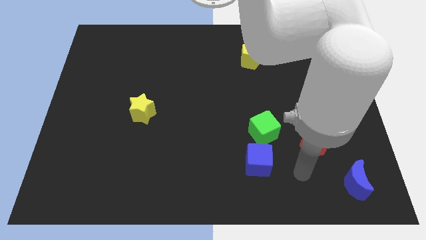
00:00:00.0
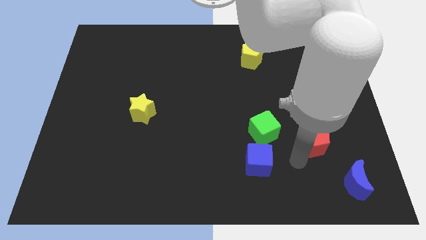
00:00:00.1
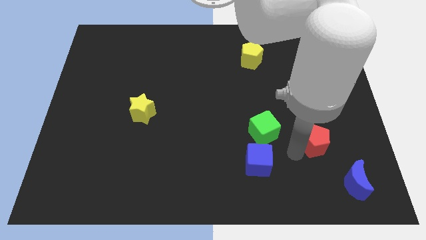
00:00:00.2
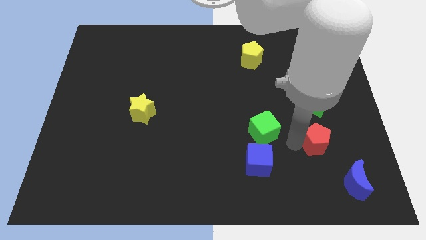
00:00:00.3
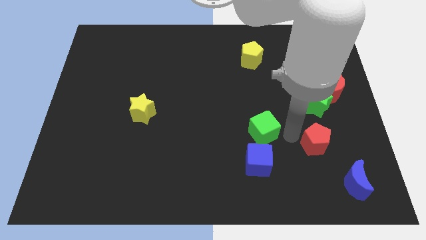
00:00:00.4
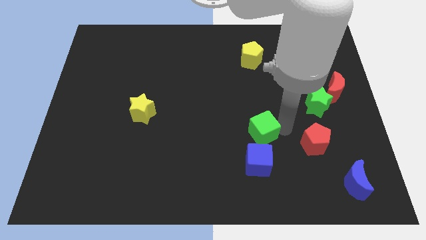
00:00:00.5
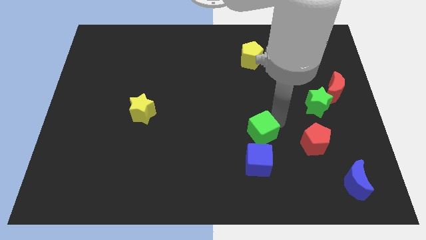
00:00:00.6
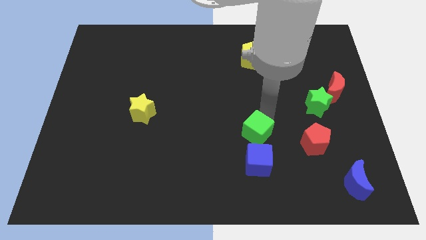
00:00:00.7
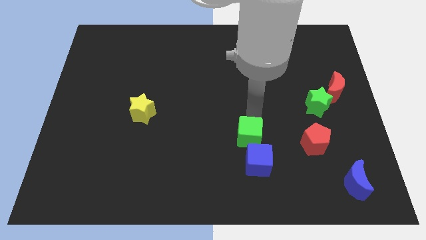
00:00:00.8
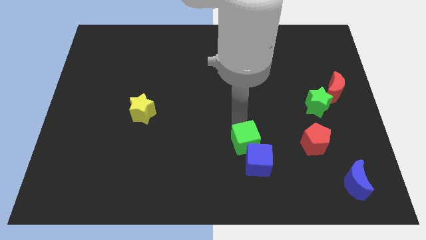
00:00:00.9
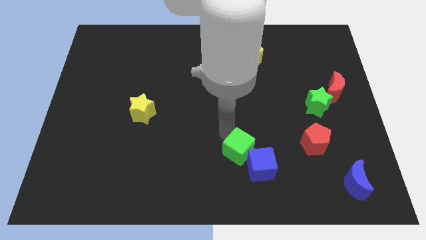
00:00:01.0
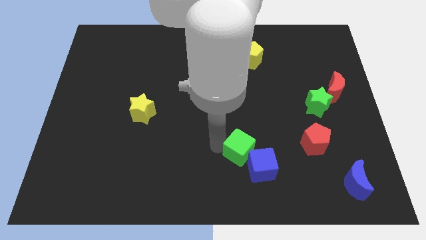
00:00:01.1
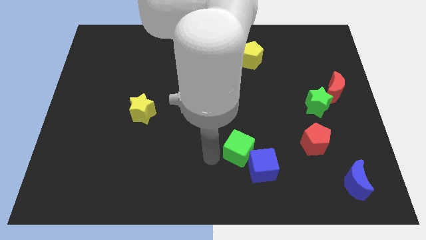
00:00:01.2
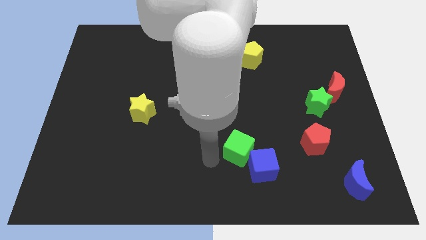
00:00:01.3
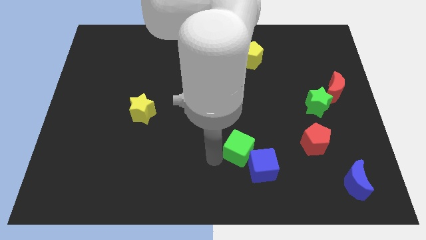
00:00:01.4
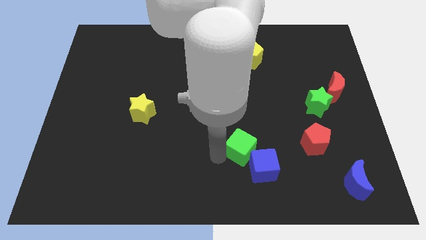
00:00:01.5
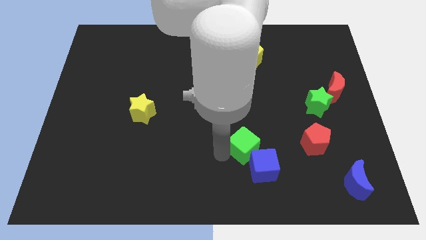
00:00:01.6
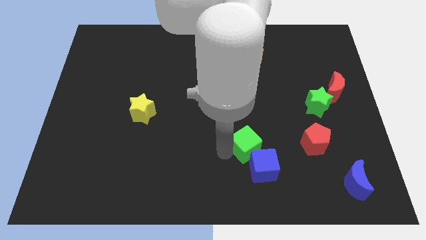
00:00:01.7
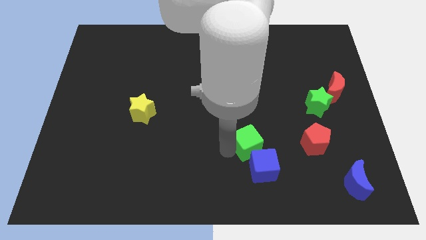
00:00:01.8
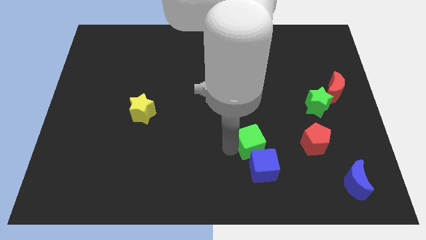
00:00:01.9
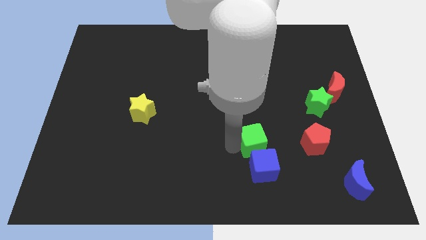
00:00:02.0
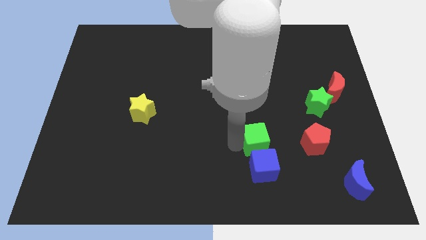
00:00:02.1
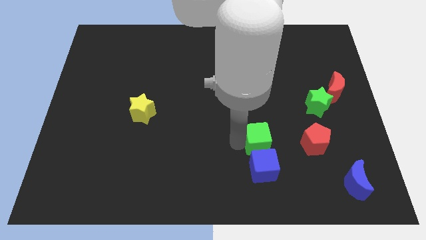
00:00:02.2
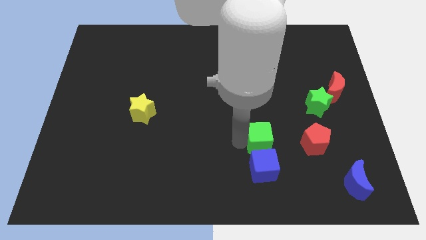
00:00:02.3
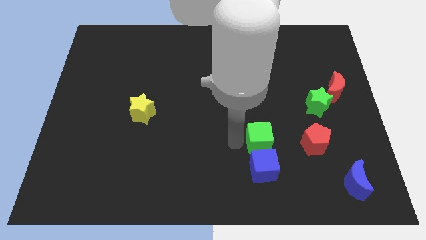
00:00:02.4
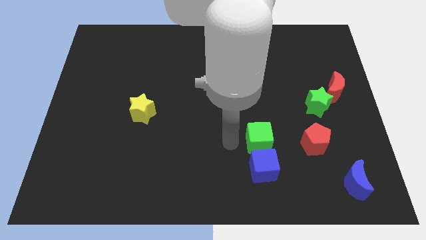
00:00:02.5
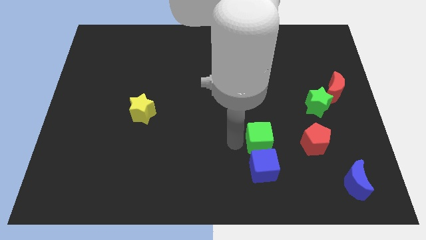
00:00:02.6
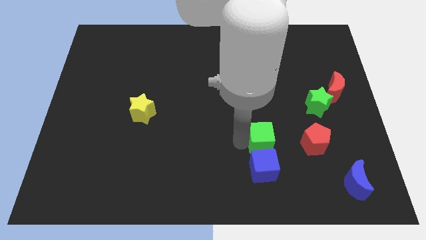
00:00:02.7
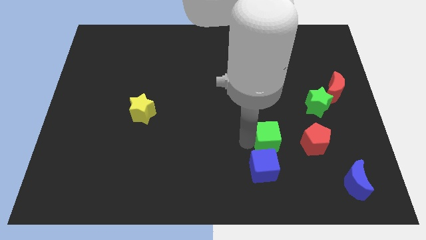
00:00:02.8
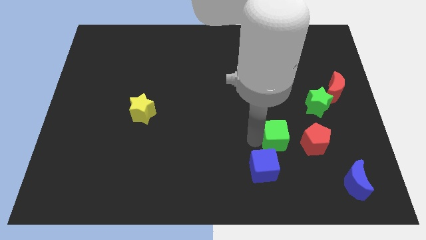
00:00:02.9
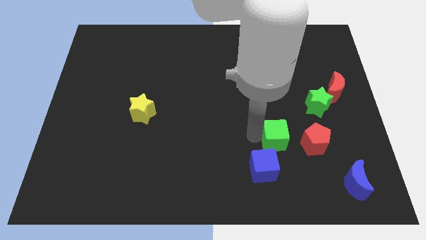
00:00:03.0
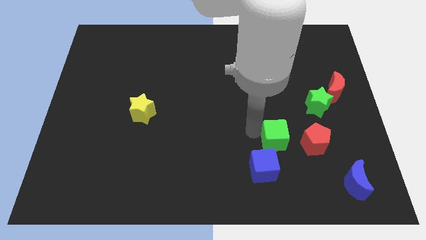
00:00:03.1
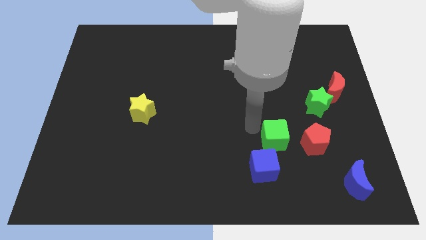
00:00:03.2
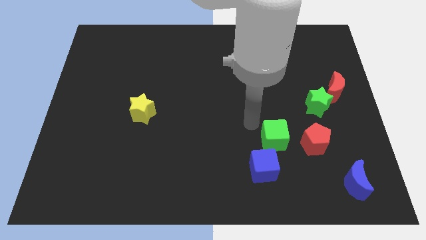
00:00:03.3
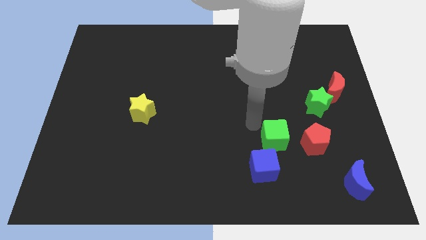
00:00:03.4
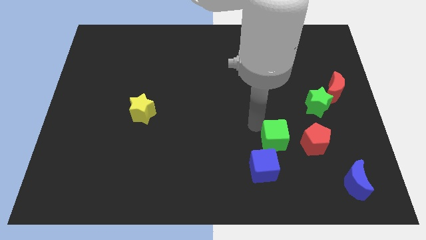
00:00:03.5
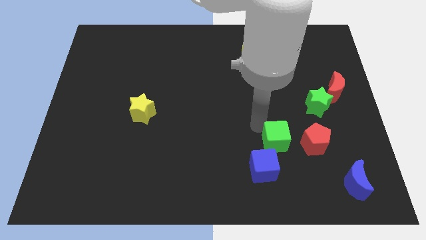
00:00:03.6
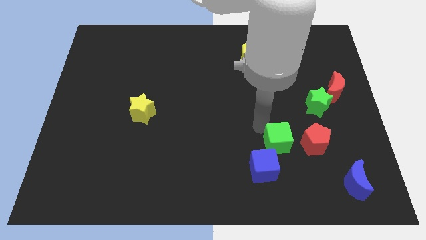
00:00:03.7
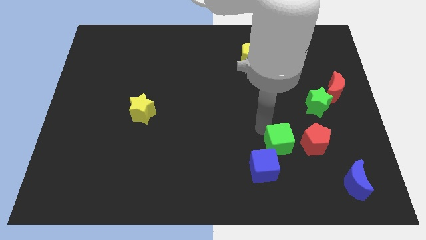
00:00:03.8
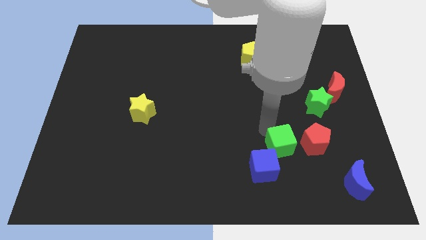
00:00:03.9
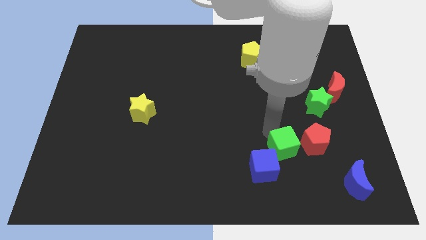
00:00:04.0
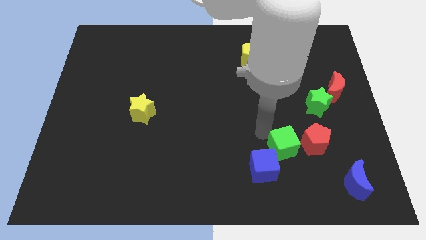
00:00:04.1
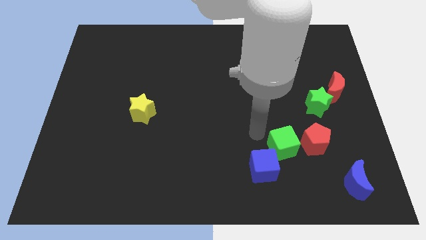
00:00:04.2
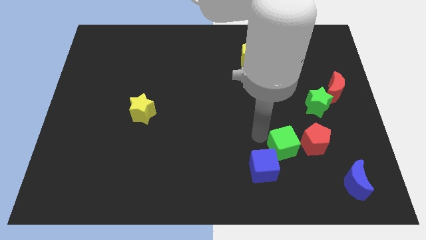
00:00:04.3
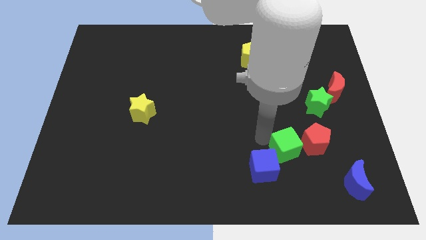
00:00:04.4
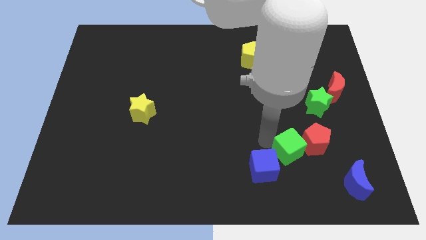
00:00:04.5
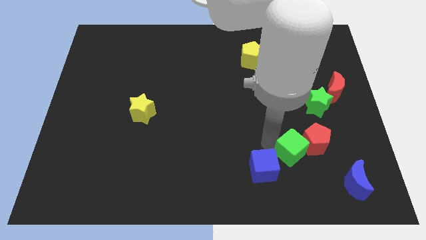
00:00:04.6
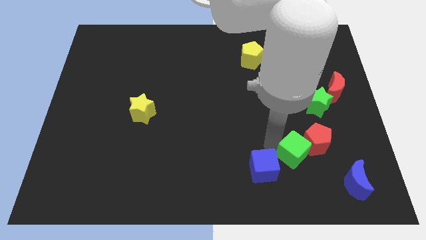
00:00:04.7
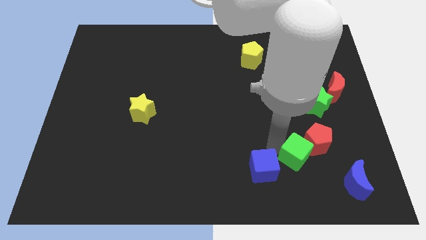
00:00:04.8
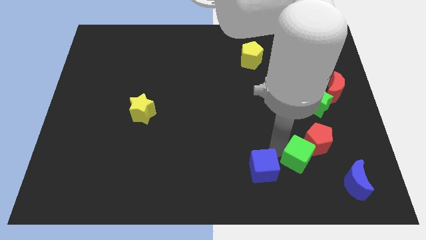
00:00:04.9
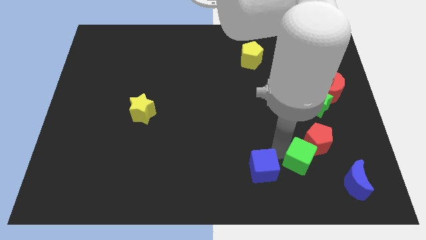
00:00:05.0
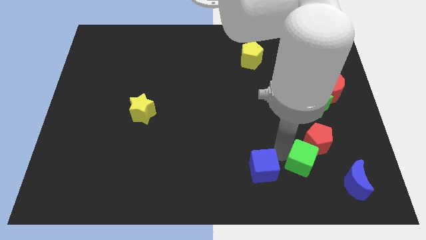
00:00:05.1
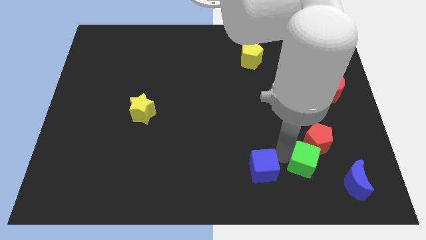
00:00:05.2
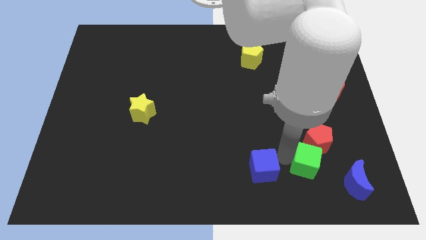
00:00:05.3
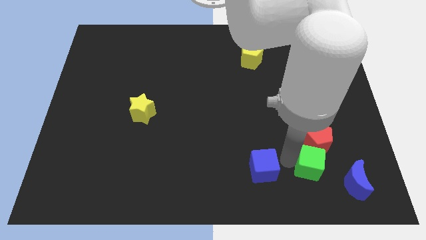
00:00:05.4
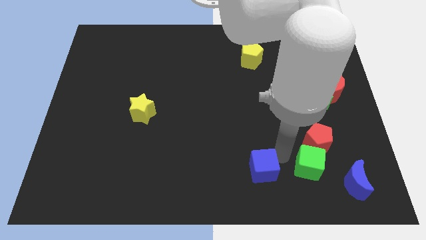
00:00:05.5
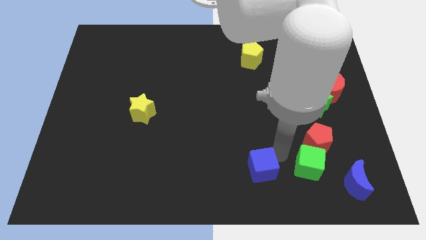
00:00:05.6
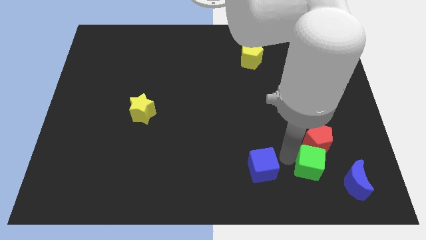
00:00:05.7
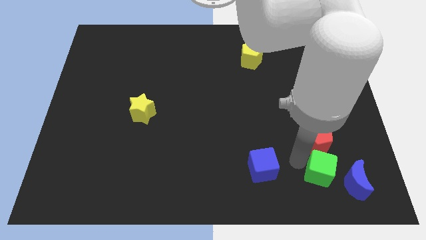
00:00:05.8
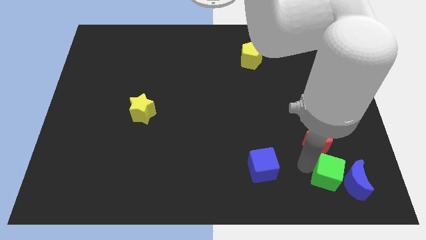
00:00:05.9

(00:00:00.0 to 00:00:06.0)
move the green cube next to the blue moon

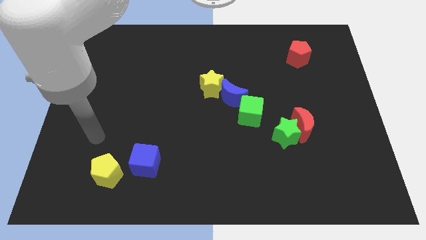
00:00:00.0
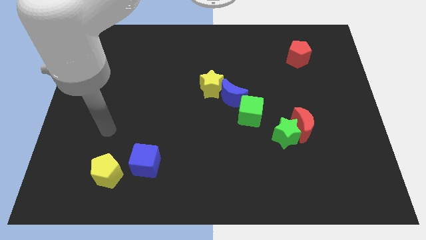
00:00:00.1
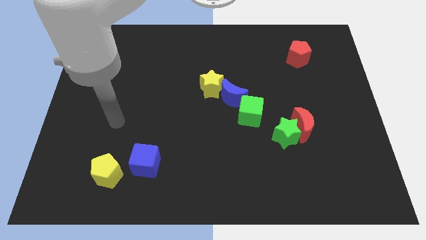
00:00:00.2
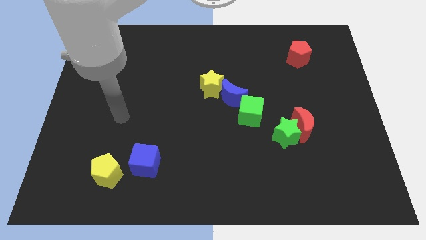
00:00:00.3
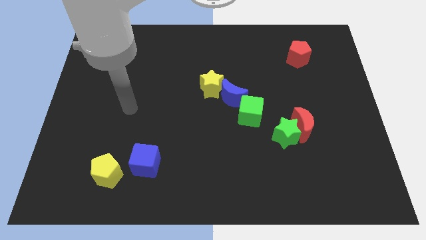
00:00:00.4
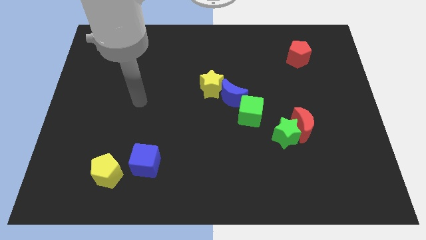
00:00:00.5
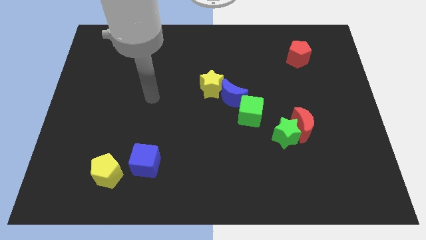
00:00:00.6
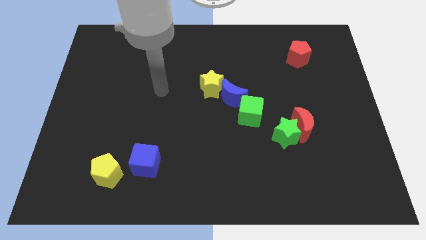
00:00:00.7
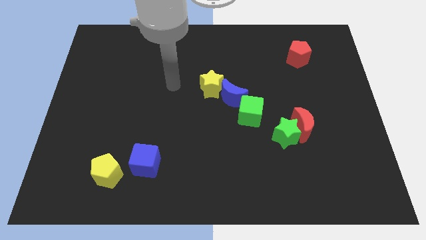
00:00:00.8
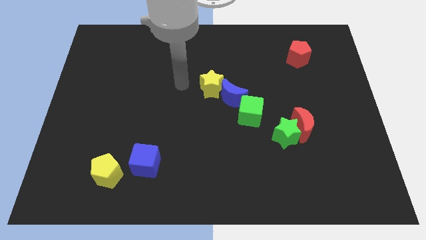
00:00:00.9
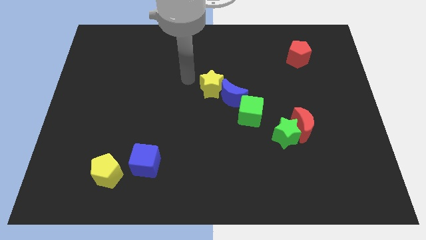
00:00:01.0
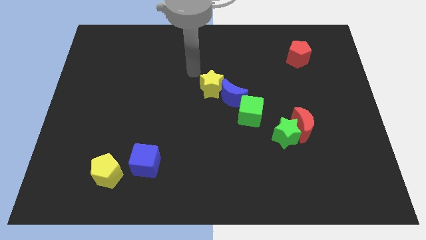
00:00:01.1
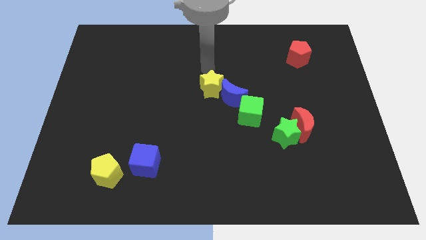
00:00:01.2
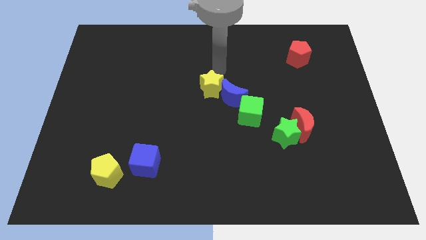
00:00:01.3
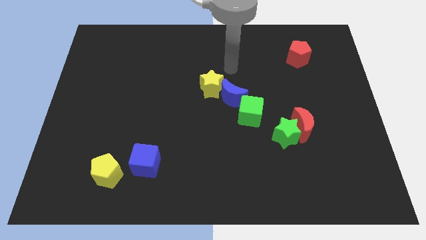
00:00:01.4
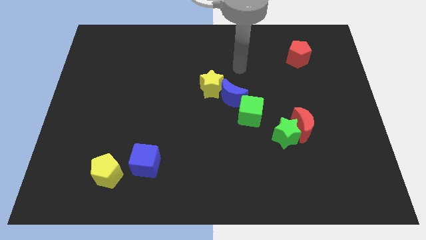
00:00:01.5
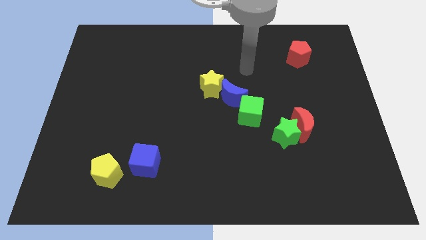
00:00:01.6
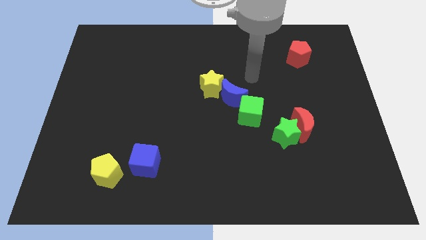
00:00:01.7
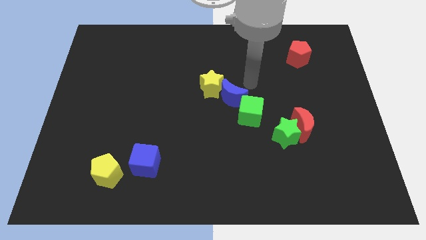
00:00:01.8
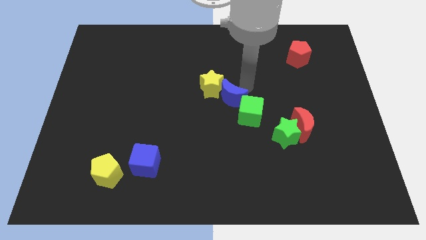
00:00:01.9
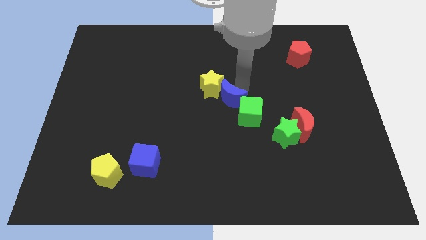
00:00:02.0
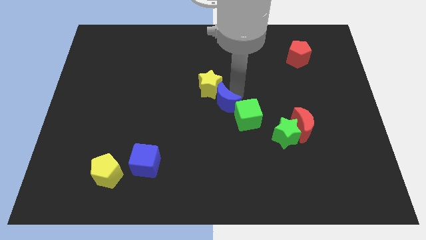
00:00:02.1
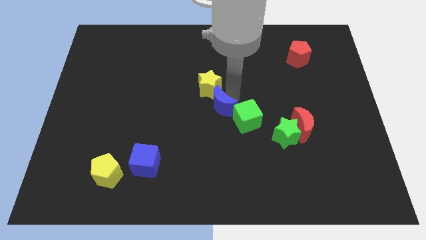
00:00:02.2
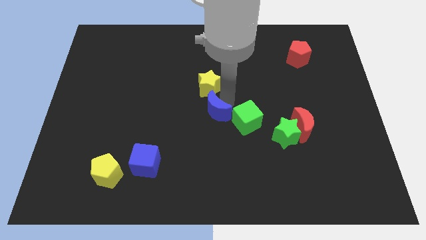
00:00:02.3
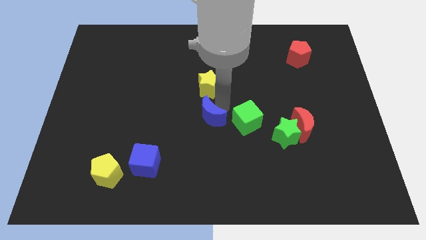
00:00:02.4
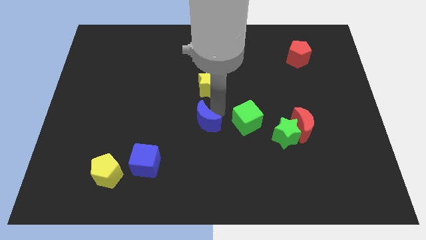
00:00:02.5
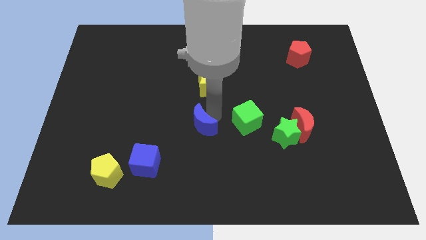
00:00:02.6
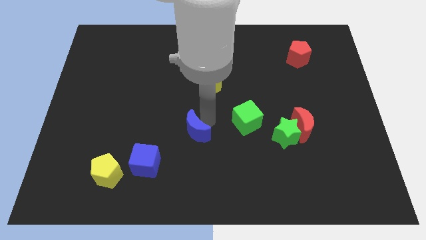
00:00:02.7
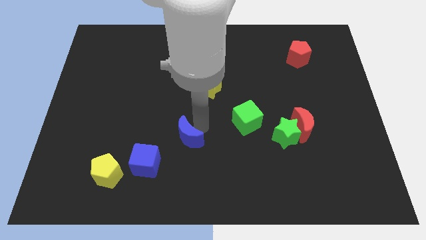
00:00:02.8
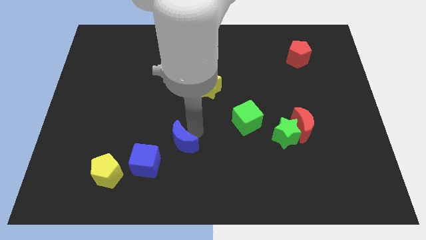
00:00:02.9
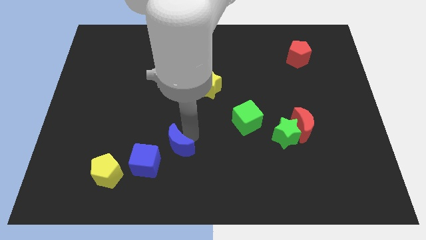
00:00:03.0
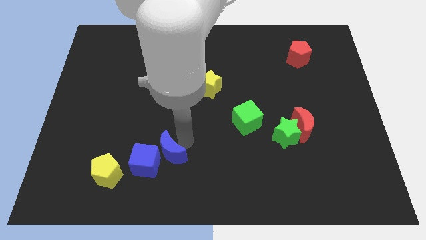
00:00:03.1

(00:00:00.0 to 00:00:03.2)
put the blue moon towards the blue cube
